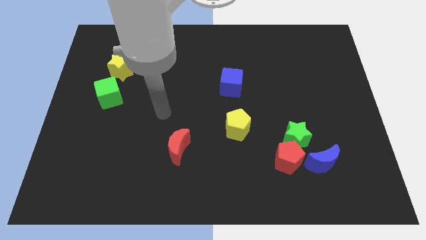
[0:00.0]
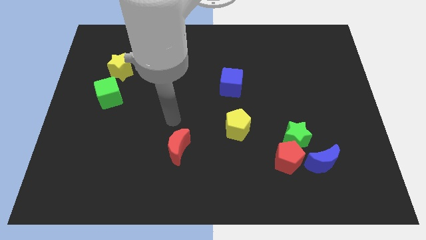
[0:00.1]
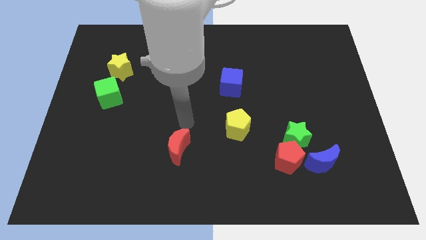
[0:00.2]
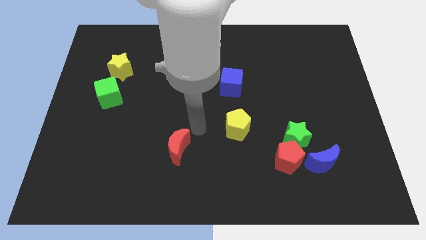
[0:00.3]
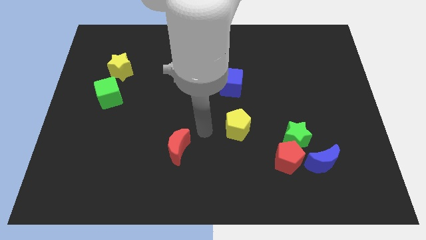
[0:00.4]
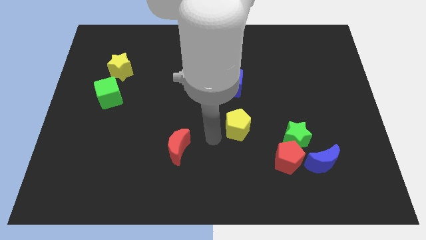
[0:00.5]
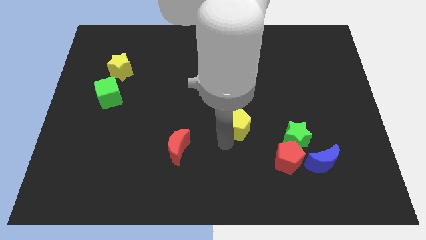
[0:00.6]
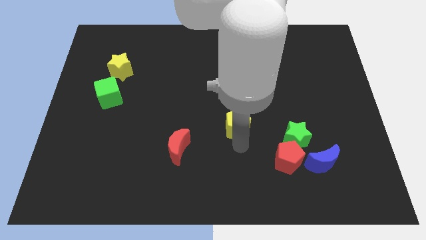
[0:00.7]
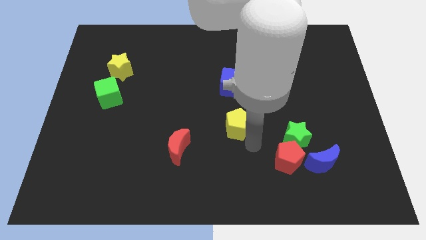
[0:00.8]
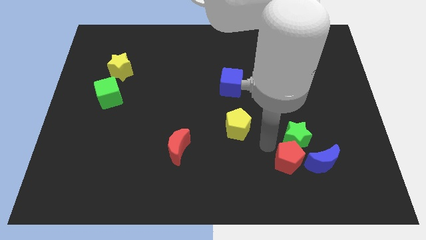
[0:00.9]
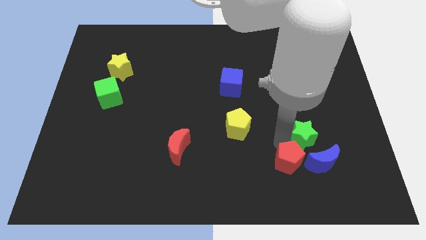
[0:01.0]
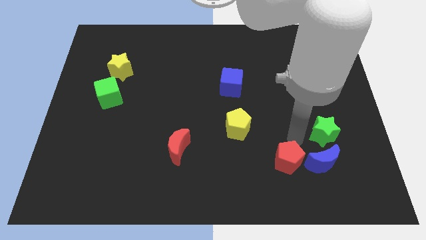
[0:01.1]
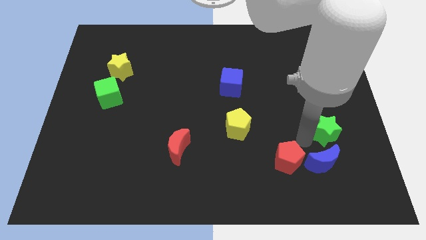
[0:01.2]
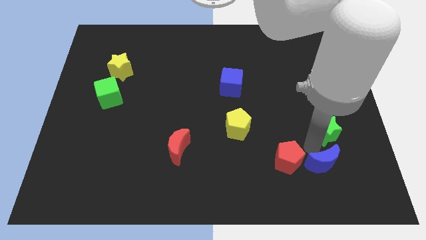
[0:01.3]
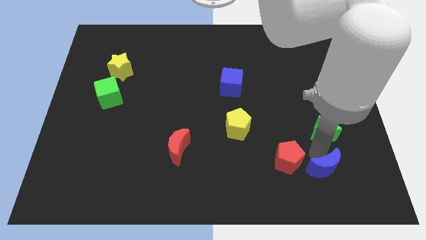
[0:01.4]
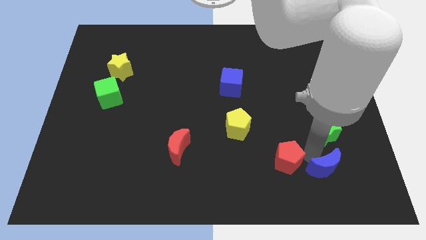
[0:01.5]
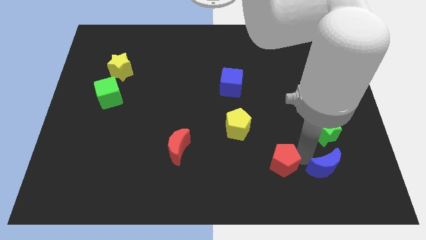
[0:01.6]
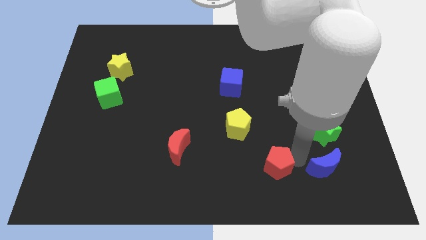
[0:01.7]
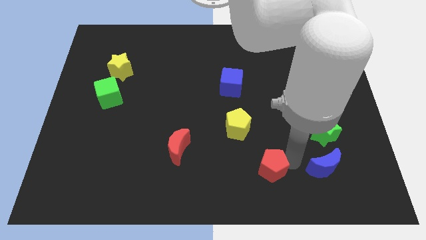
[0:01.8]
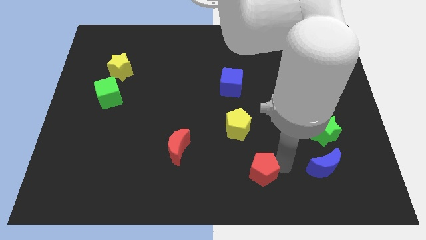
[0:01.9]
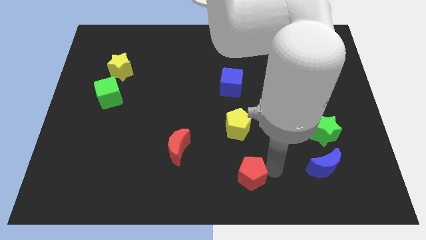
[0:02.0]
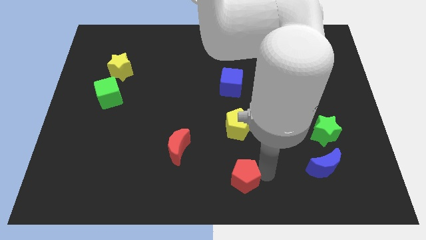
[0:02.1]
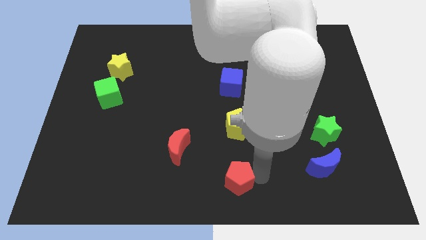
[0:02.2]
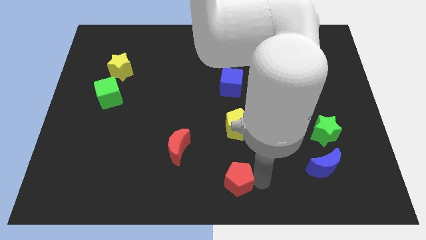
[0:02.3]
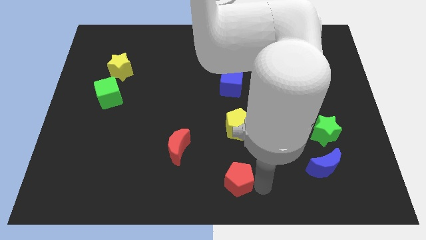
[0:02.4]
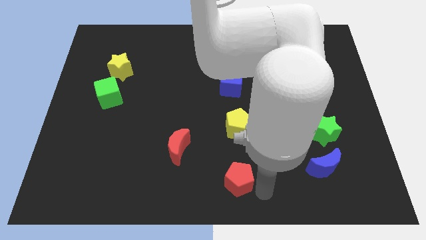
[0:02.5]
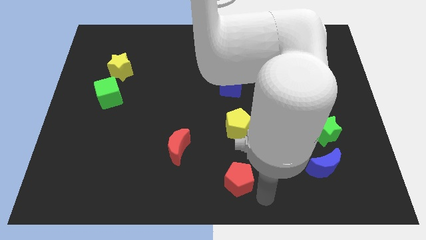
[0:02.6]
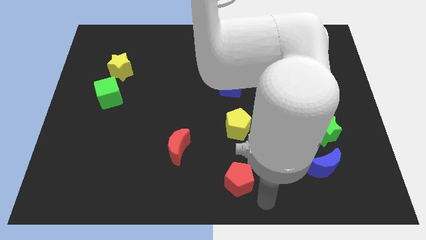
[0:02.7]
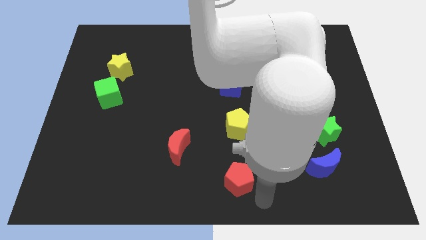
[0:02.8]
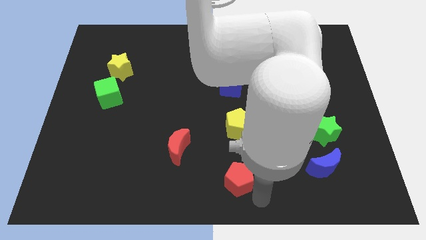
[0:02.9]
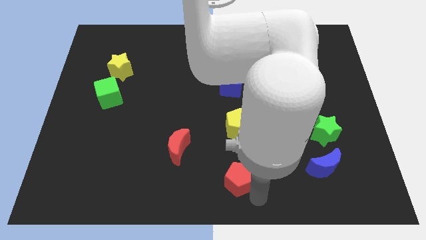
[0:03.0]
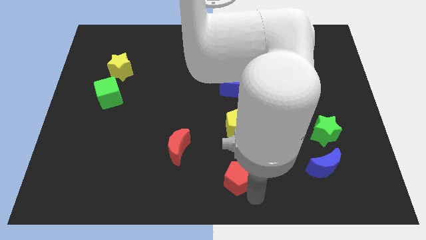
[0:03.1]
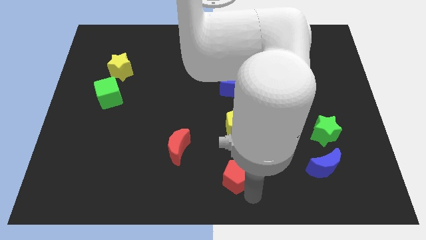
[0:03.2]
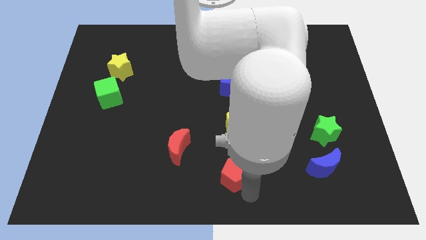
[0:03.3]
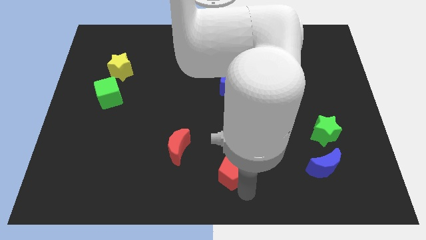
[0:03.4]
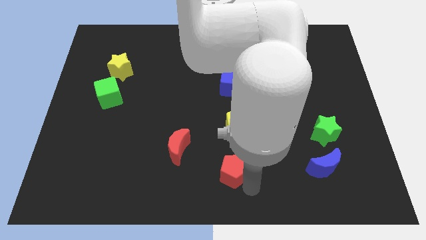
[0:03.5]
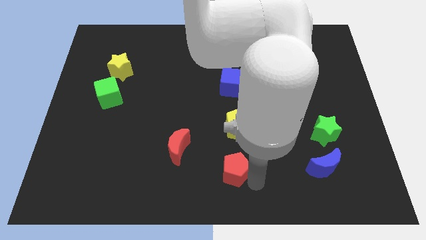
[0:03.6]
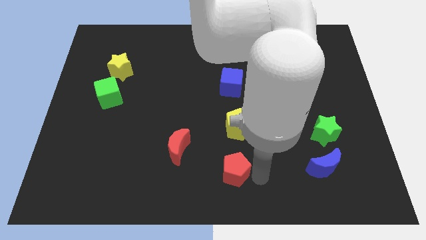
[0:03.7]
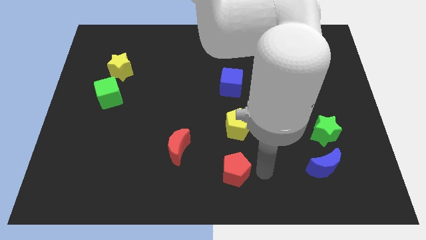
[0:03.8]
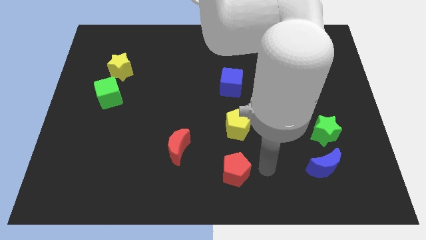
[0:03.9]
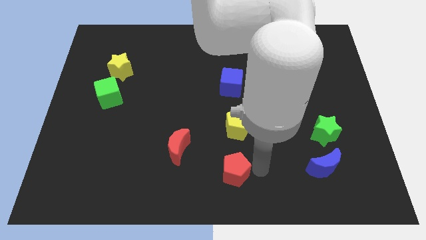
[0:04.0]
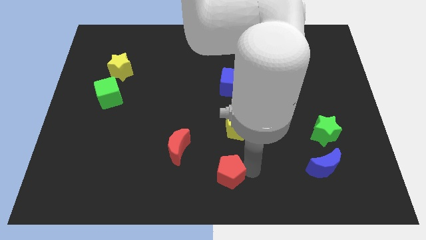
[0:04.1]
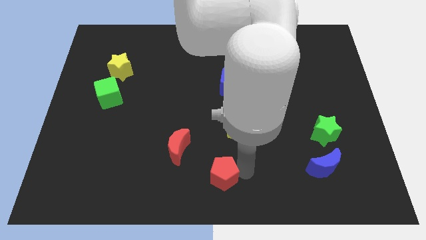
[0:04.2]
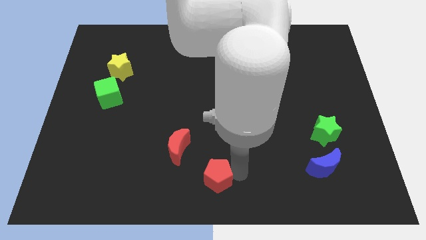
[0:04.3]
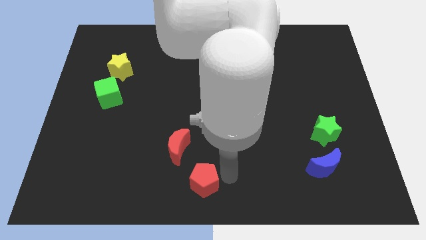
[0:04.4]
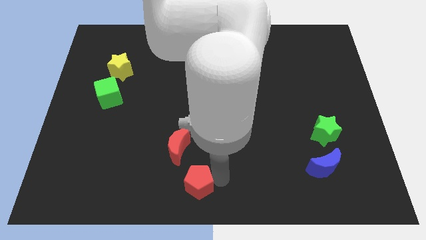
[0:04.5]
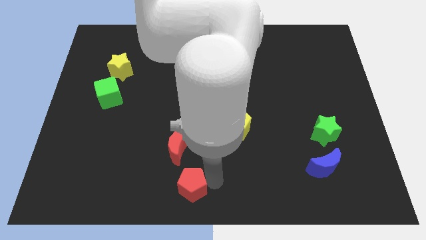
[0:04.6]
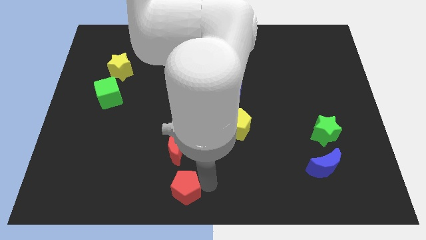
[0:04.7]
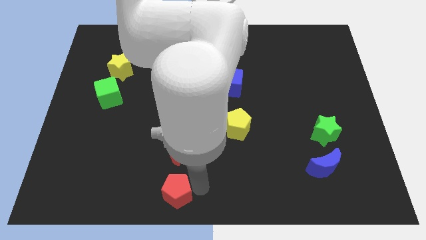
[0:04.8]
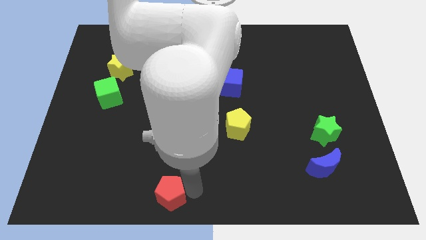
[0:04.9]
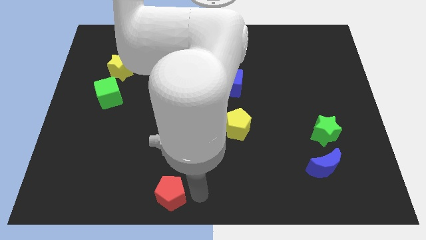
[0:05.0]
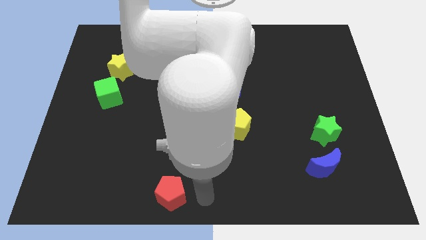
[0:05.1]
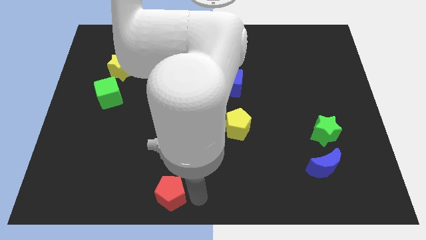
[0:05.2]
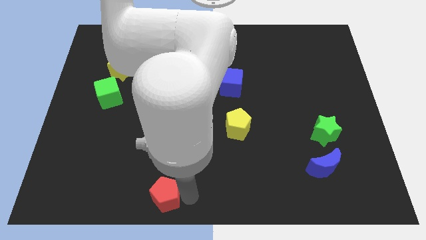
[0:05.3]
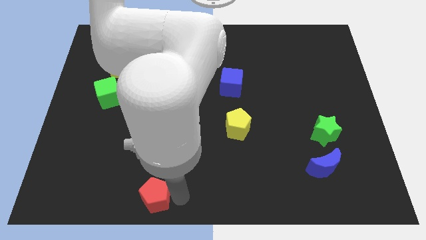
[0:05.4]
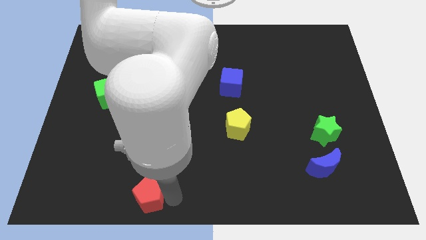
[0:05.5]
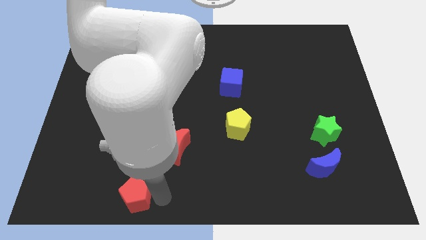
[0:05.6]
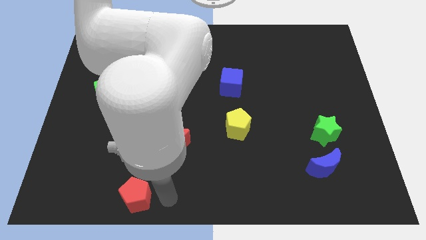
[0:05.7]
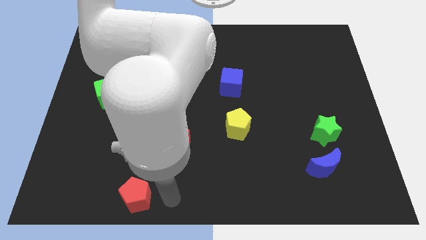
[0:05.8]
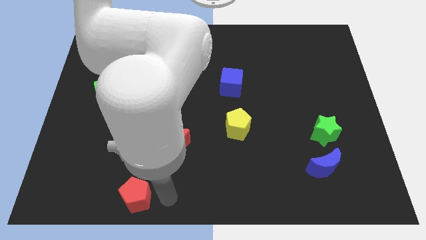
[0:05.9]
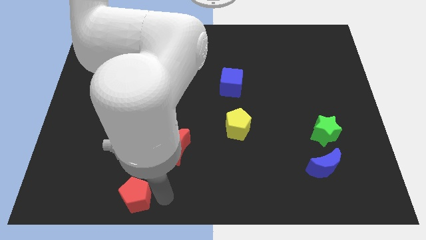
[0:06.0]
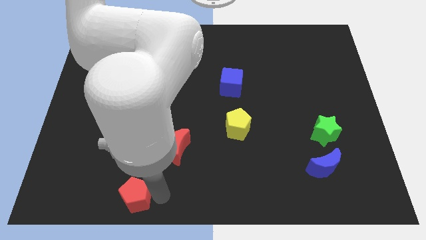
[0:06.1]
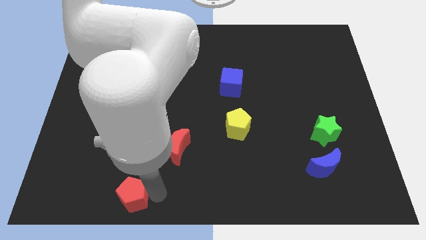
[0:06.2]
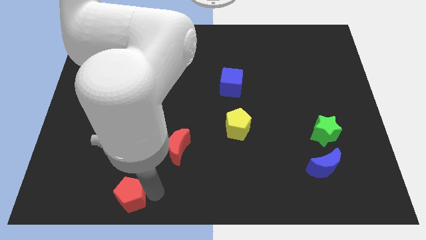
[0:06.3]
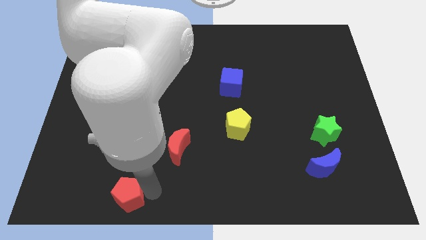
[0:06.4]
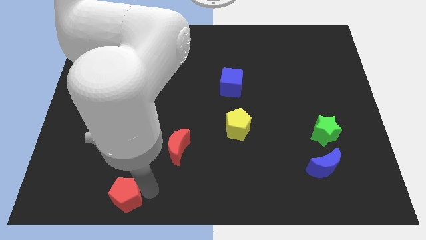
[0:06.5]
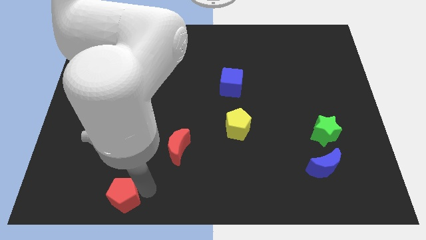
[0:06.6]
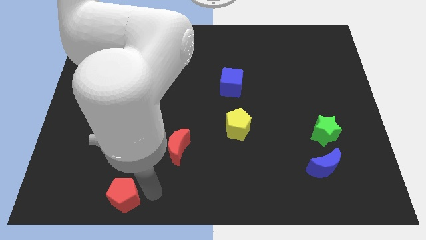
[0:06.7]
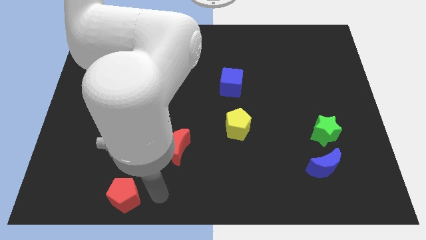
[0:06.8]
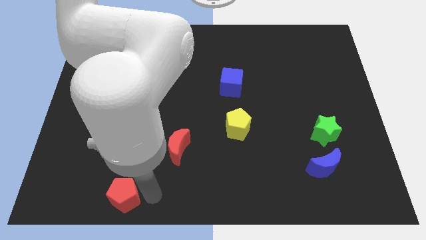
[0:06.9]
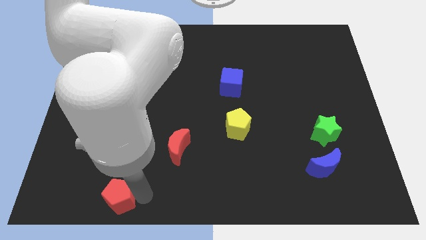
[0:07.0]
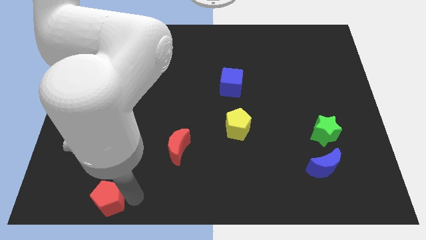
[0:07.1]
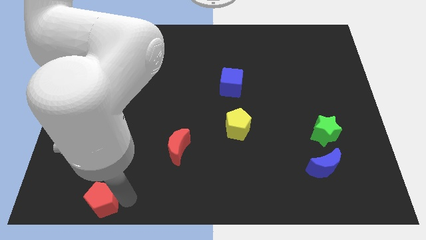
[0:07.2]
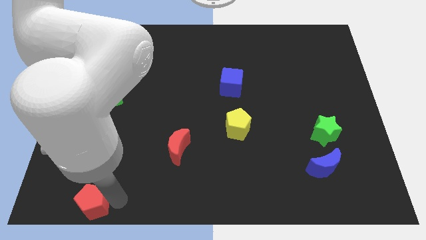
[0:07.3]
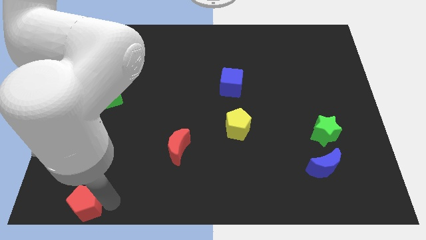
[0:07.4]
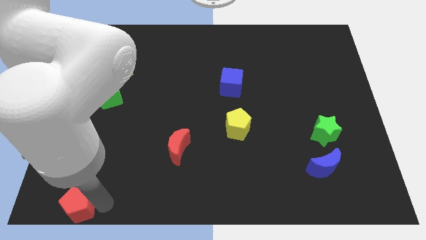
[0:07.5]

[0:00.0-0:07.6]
push the red pentagon to the bottom left
